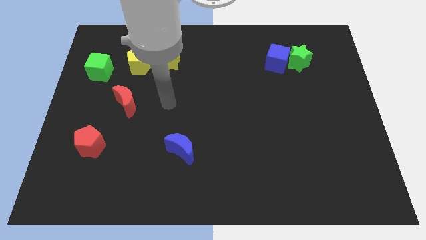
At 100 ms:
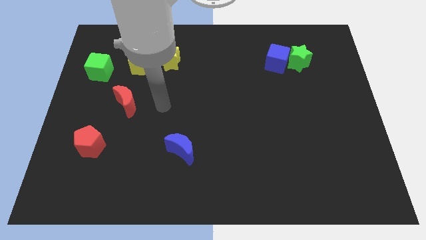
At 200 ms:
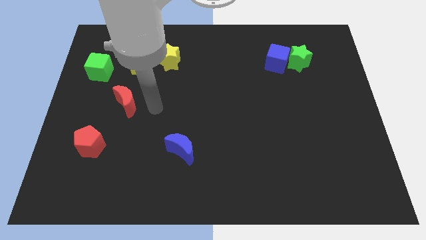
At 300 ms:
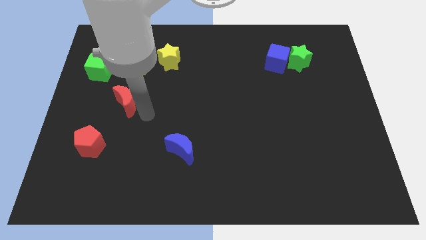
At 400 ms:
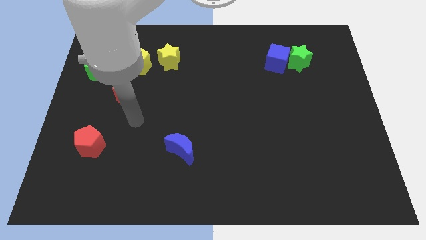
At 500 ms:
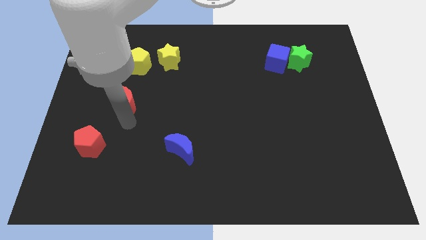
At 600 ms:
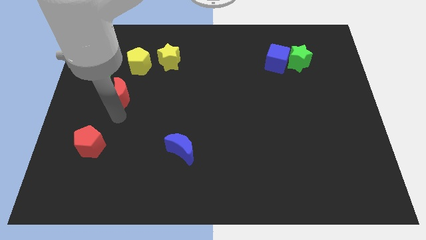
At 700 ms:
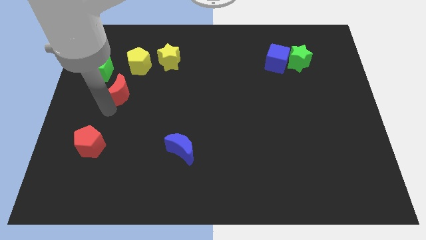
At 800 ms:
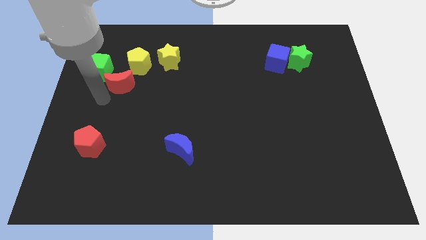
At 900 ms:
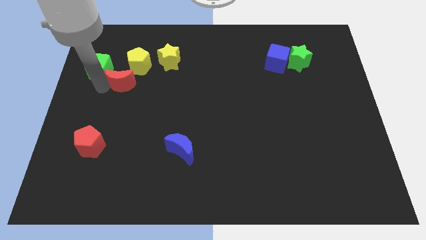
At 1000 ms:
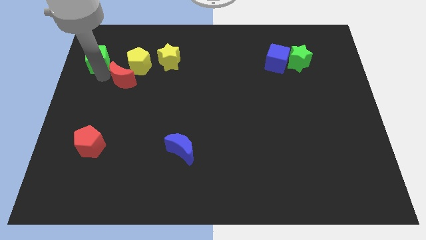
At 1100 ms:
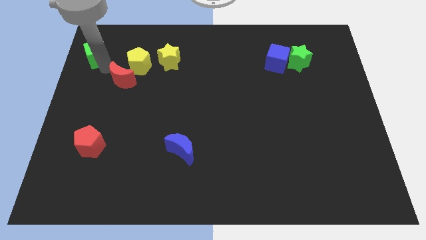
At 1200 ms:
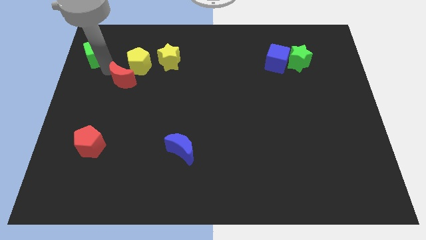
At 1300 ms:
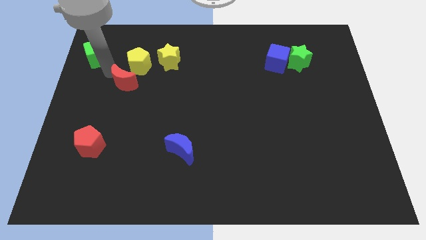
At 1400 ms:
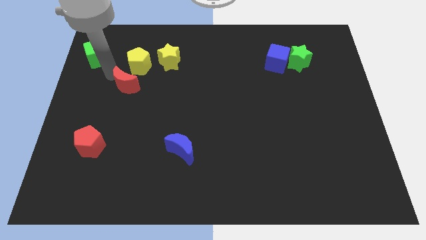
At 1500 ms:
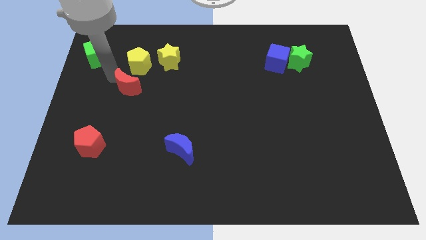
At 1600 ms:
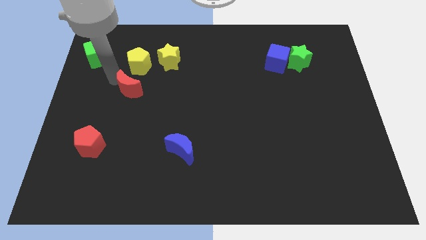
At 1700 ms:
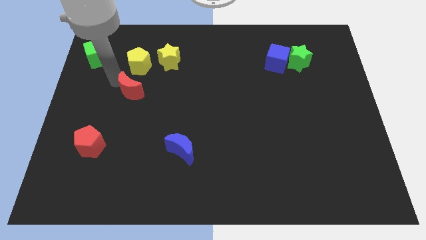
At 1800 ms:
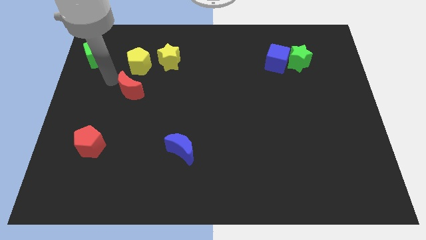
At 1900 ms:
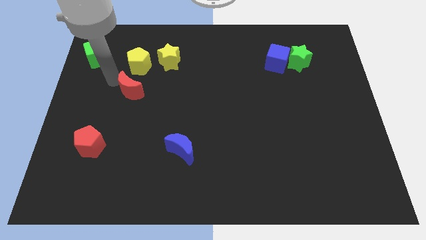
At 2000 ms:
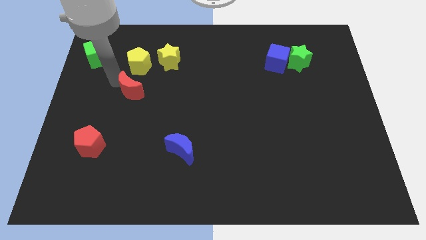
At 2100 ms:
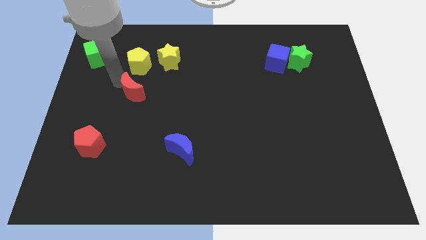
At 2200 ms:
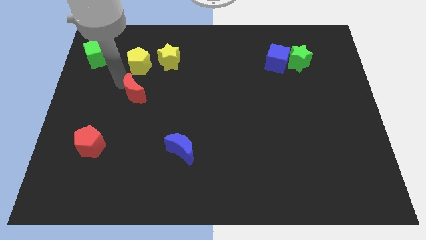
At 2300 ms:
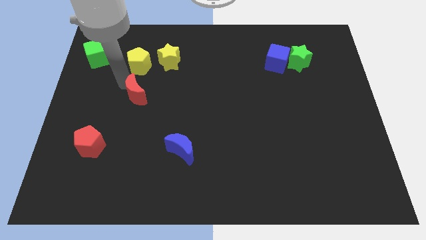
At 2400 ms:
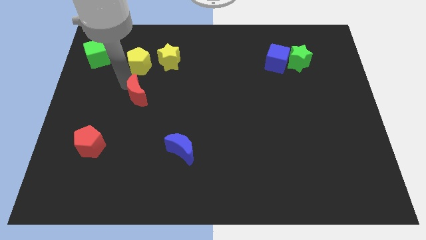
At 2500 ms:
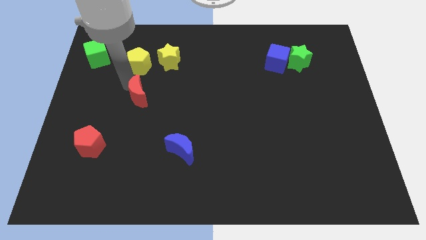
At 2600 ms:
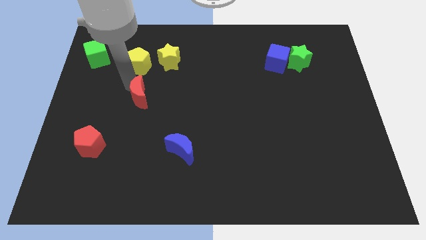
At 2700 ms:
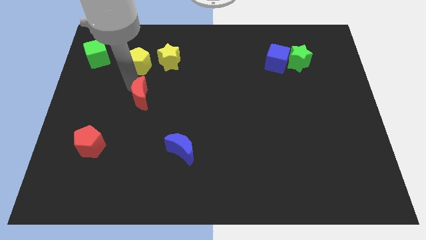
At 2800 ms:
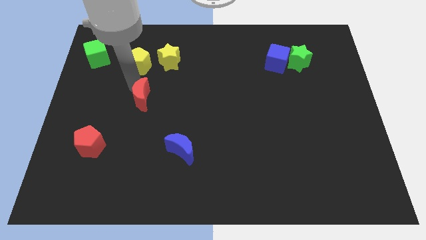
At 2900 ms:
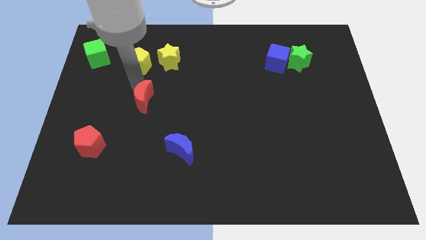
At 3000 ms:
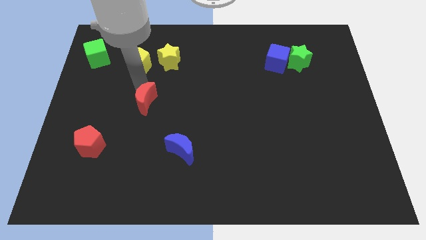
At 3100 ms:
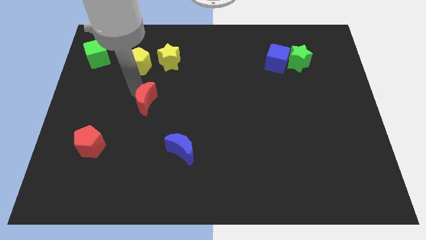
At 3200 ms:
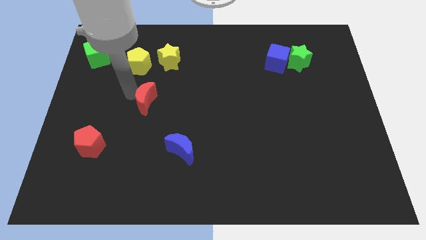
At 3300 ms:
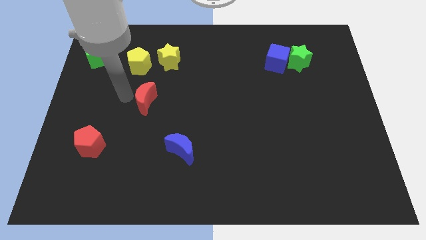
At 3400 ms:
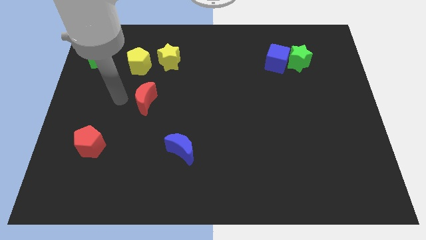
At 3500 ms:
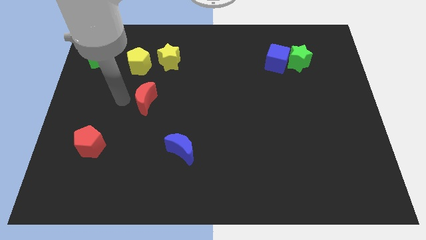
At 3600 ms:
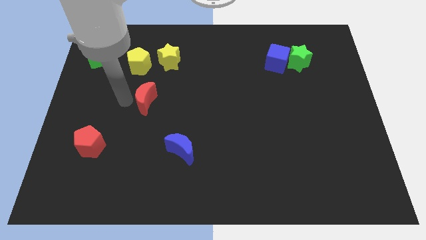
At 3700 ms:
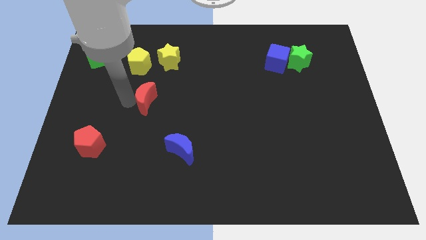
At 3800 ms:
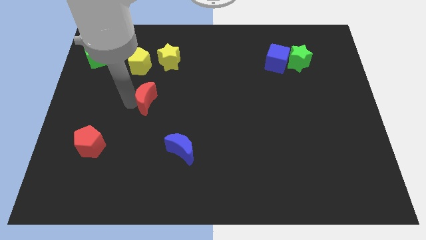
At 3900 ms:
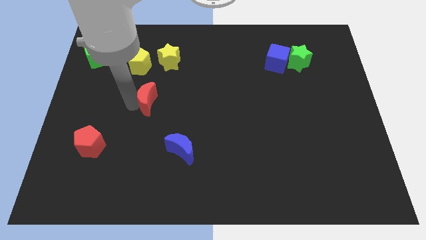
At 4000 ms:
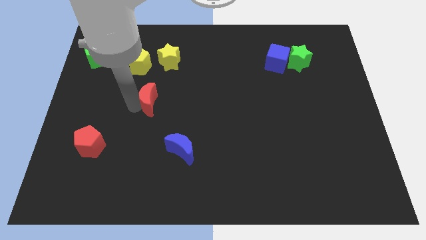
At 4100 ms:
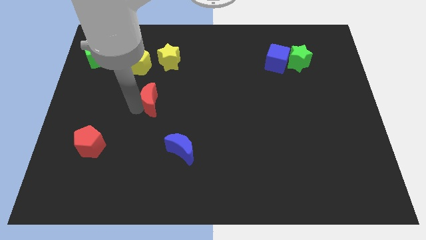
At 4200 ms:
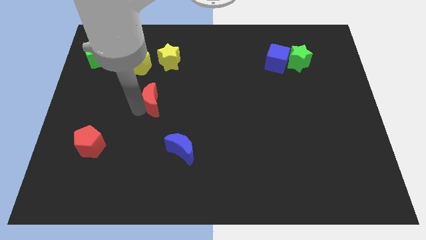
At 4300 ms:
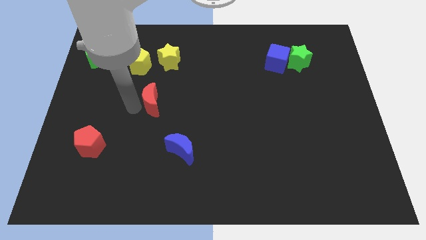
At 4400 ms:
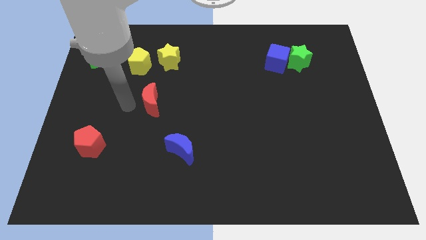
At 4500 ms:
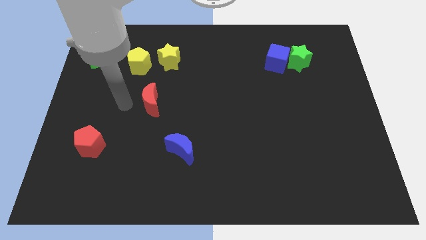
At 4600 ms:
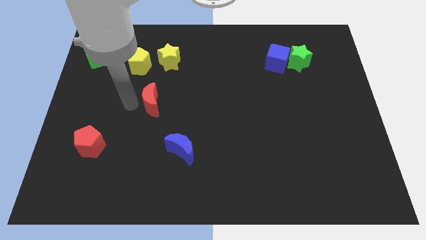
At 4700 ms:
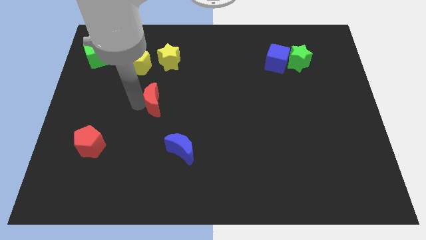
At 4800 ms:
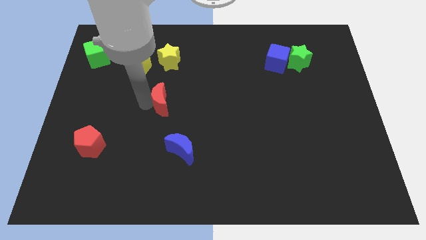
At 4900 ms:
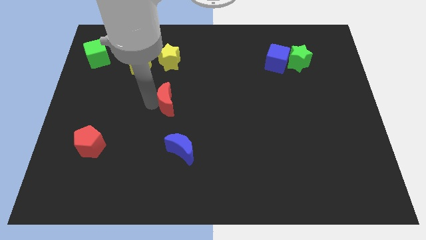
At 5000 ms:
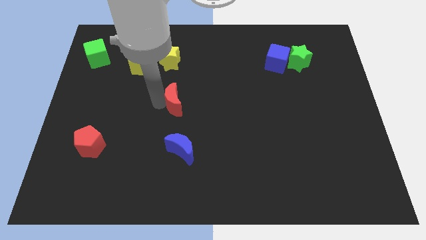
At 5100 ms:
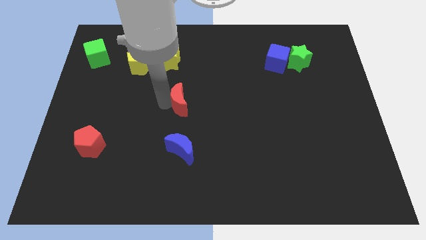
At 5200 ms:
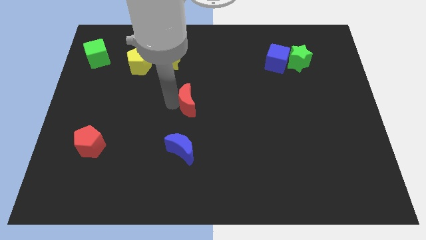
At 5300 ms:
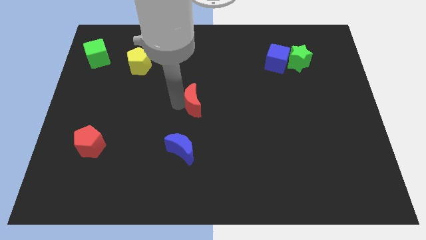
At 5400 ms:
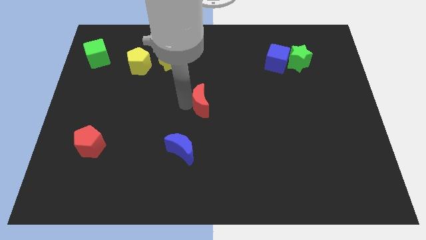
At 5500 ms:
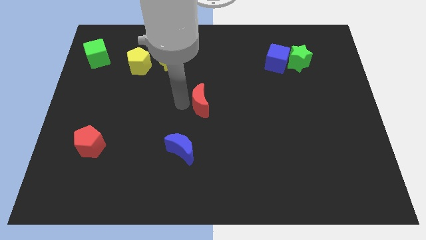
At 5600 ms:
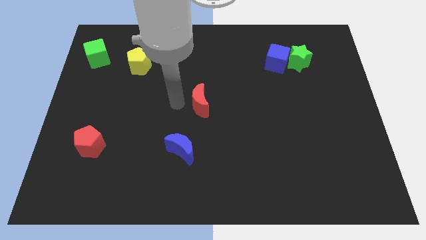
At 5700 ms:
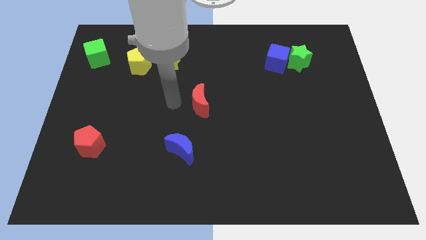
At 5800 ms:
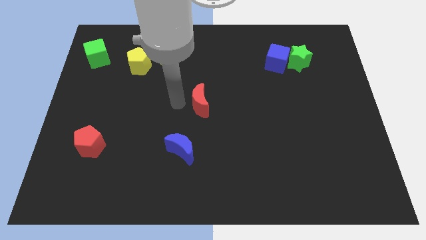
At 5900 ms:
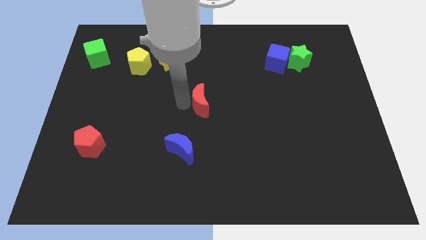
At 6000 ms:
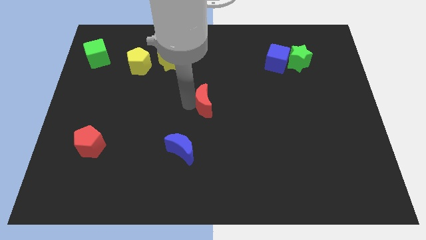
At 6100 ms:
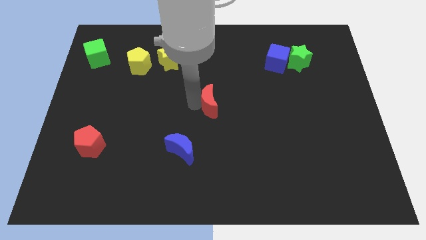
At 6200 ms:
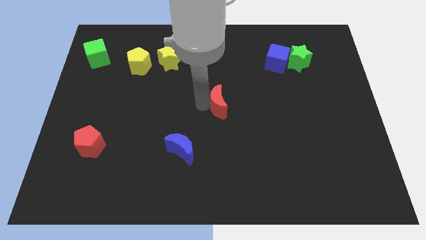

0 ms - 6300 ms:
push the red moon to the right

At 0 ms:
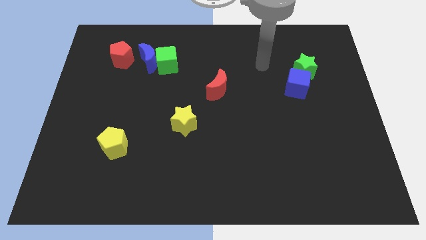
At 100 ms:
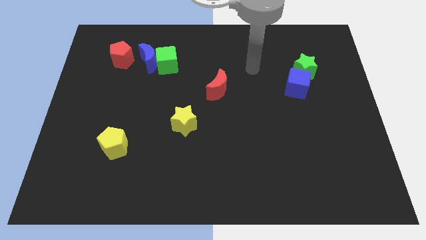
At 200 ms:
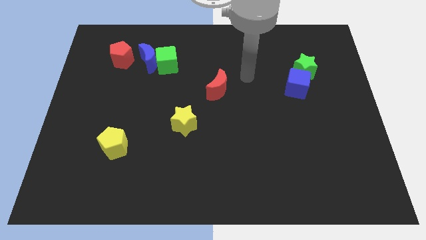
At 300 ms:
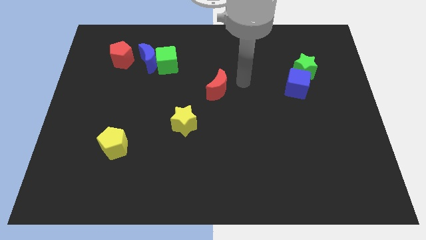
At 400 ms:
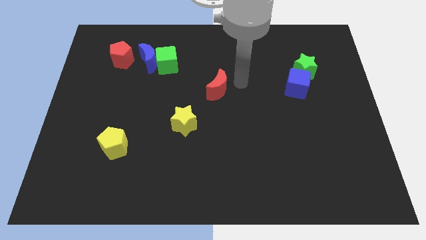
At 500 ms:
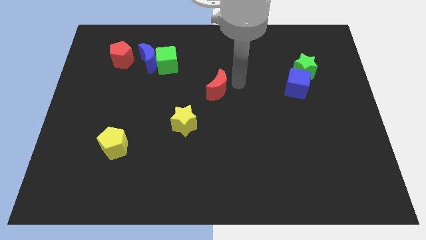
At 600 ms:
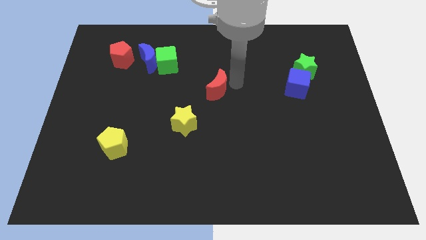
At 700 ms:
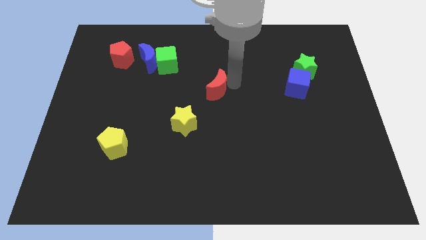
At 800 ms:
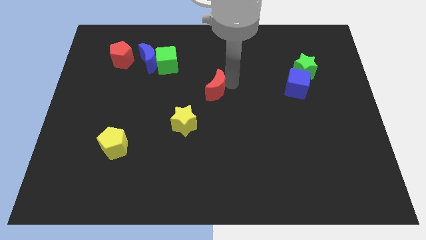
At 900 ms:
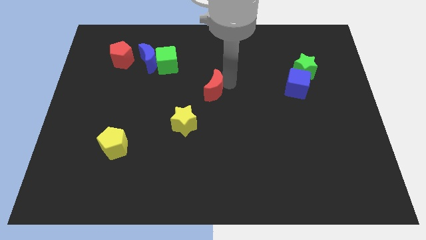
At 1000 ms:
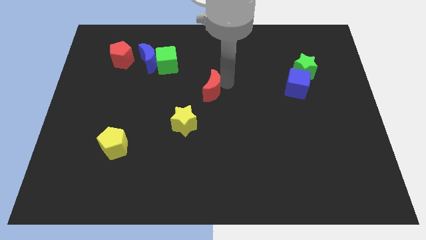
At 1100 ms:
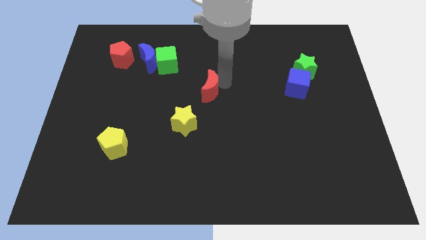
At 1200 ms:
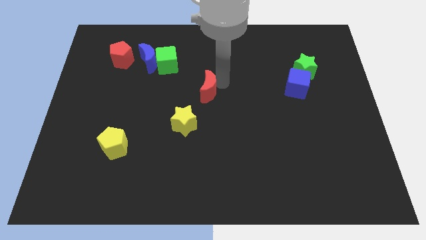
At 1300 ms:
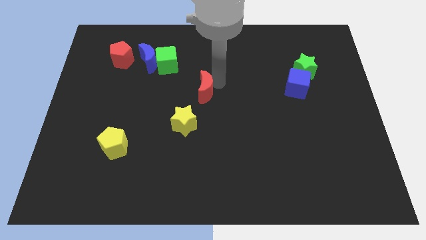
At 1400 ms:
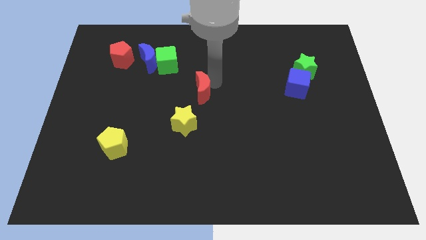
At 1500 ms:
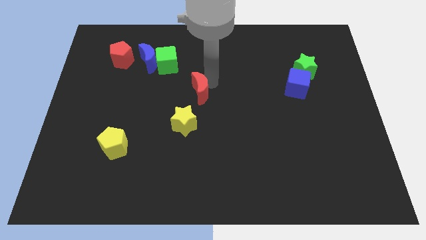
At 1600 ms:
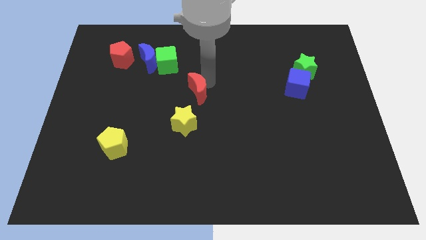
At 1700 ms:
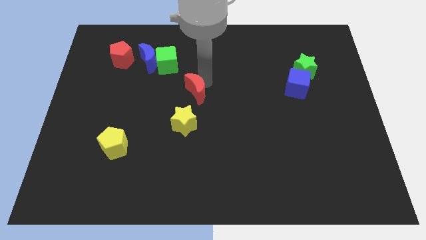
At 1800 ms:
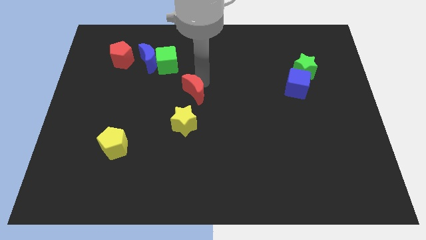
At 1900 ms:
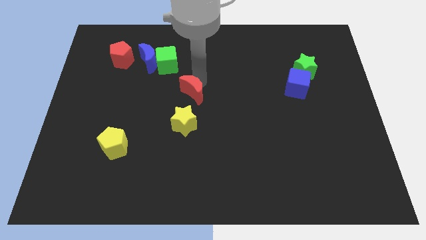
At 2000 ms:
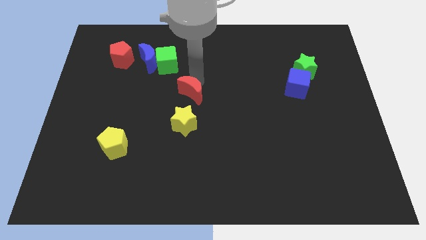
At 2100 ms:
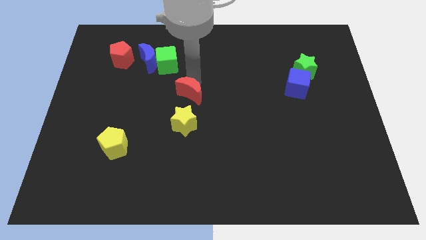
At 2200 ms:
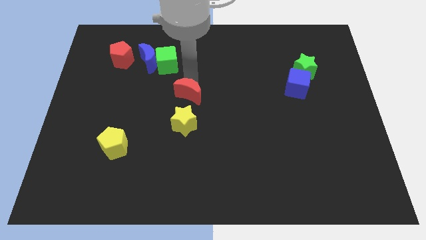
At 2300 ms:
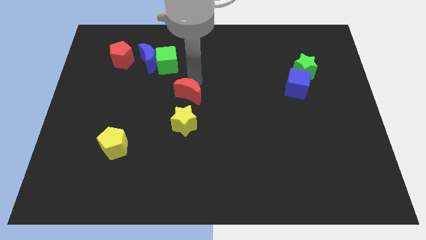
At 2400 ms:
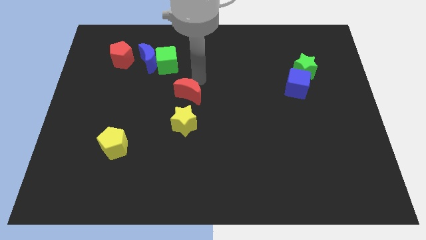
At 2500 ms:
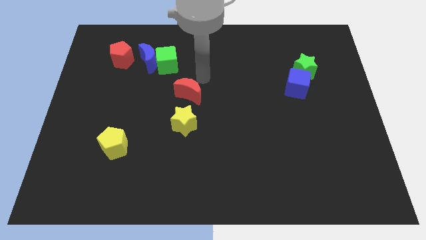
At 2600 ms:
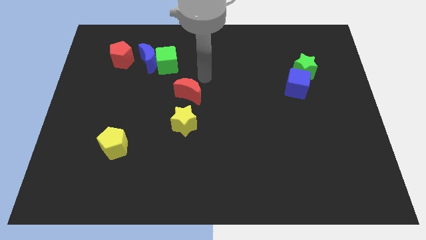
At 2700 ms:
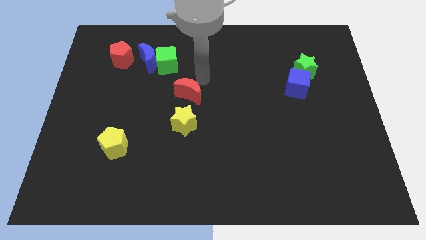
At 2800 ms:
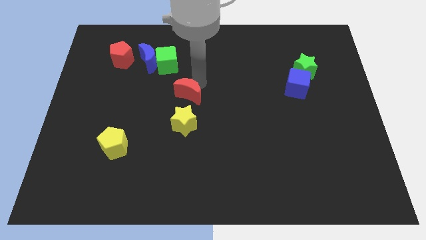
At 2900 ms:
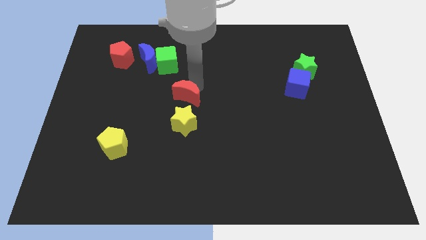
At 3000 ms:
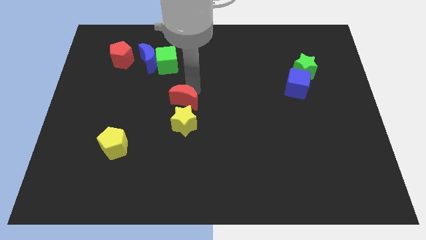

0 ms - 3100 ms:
move the red moon somewhat diagonally down and to the left
